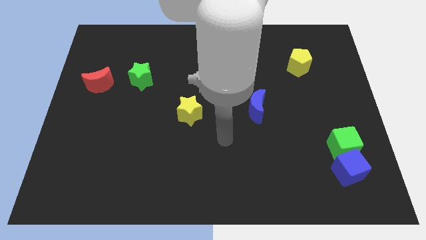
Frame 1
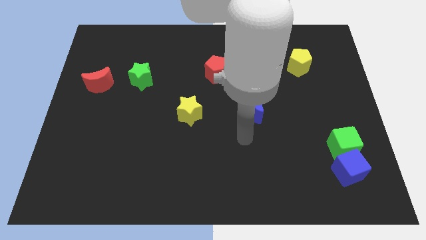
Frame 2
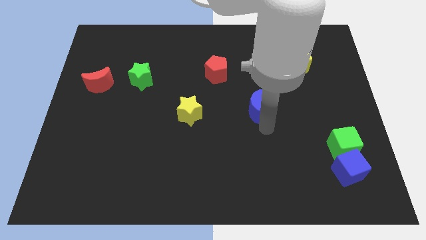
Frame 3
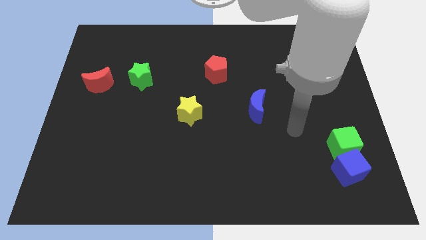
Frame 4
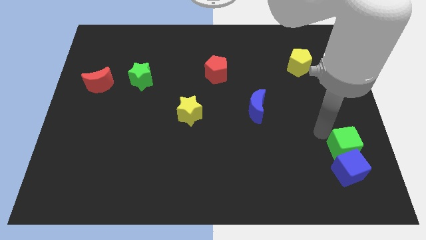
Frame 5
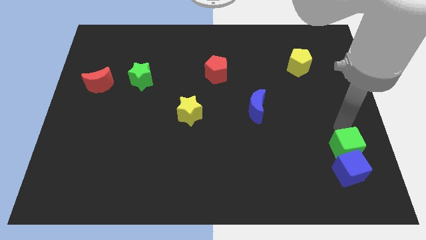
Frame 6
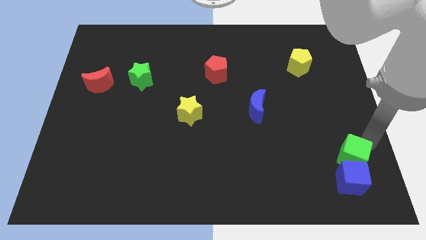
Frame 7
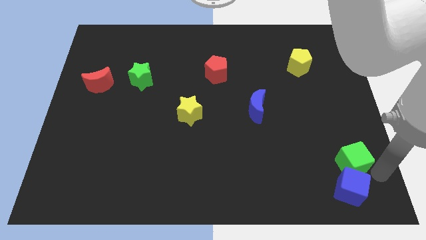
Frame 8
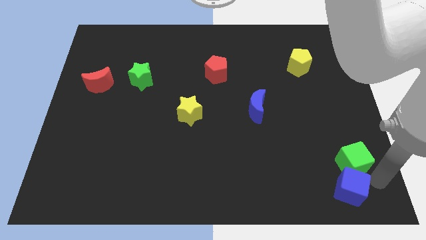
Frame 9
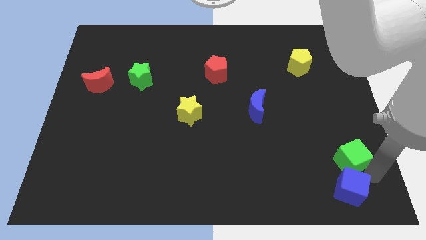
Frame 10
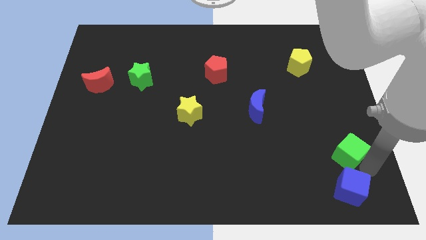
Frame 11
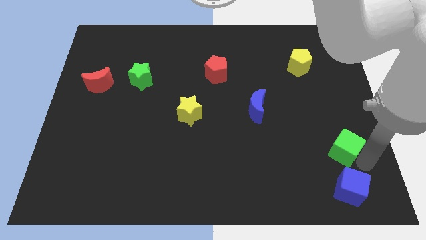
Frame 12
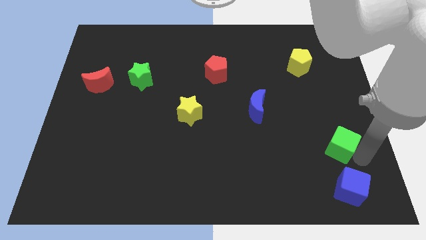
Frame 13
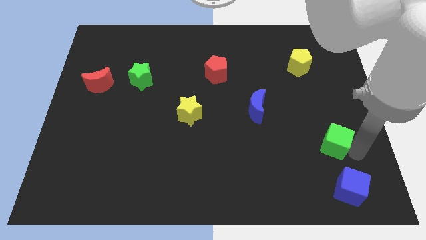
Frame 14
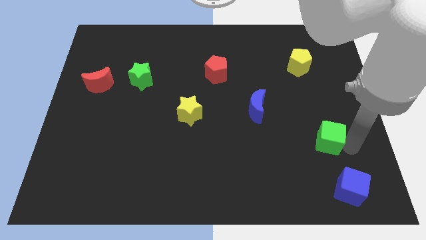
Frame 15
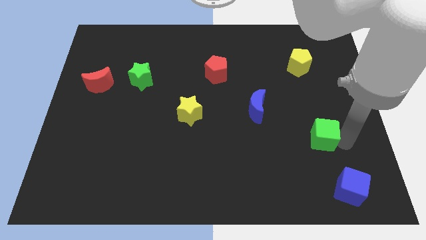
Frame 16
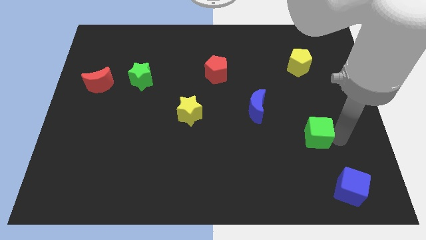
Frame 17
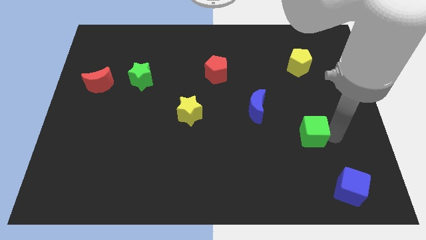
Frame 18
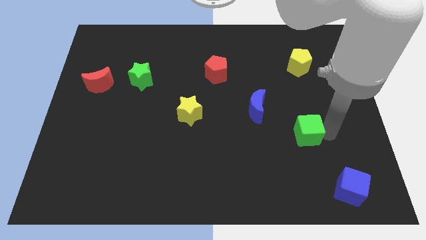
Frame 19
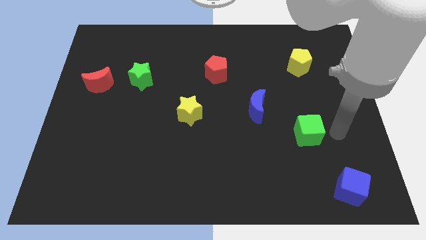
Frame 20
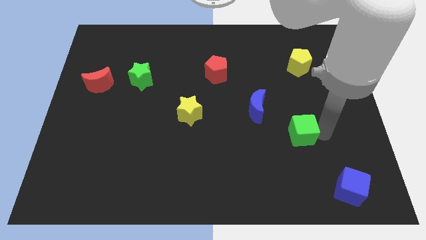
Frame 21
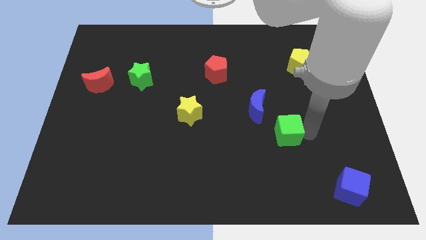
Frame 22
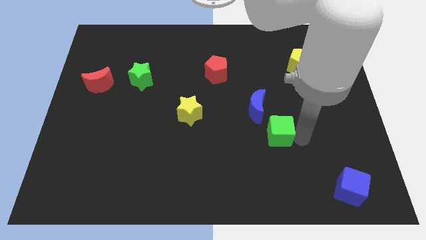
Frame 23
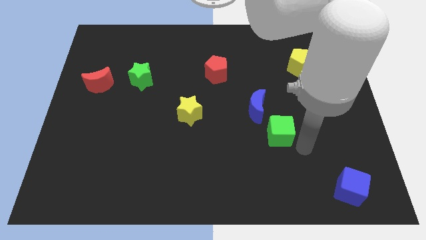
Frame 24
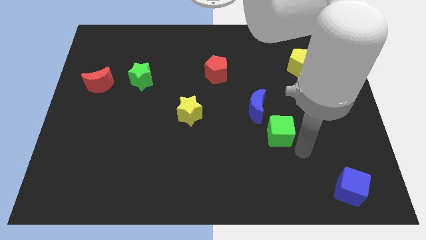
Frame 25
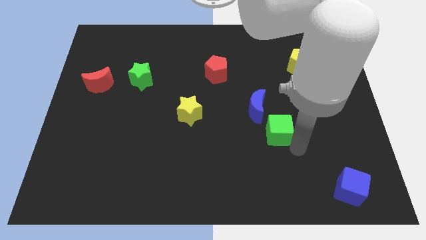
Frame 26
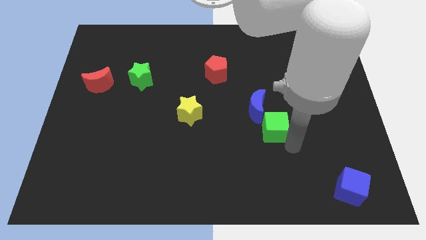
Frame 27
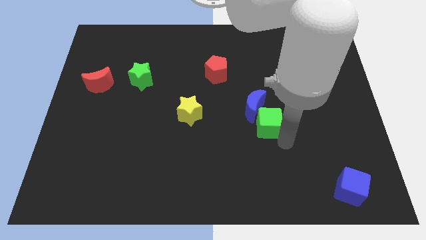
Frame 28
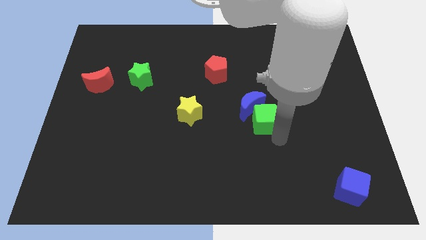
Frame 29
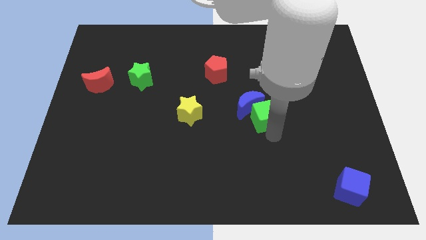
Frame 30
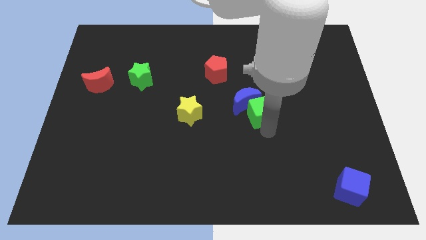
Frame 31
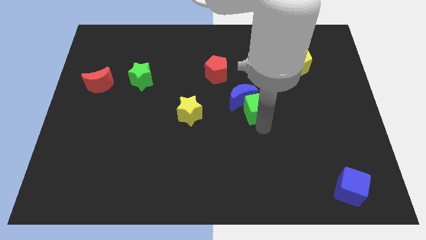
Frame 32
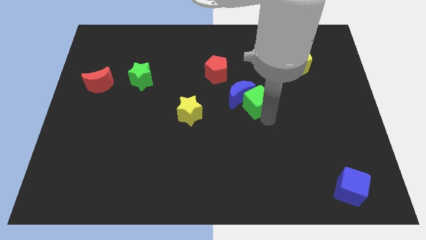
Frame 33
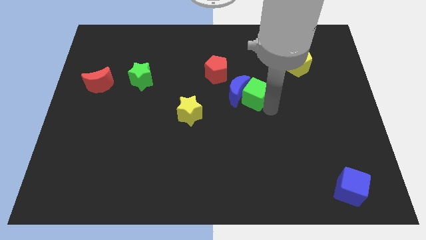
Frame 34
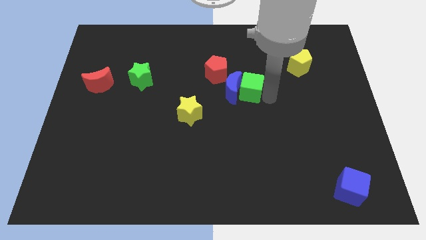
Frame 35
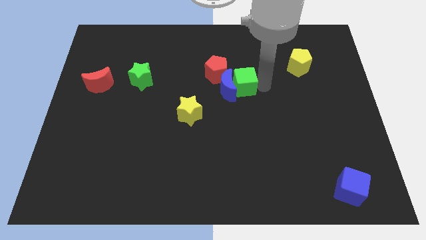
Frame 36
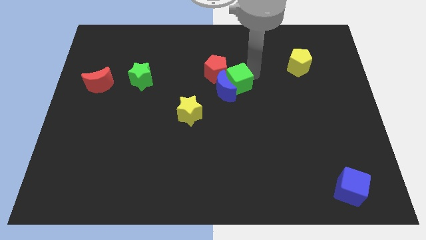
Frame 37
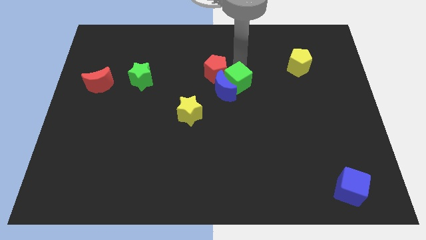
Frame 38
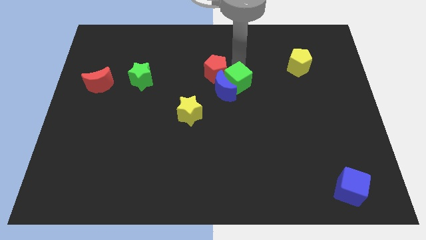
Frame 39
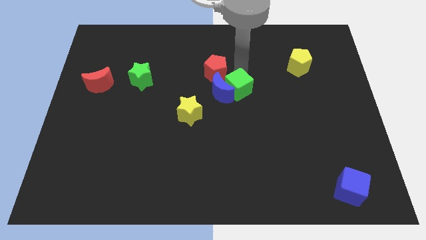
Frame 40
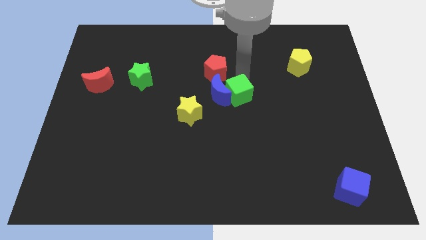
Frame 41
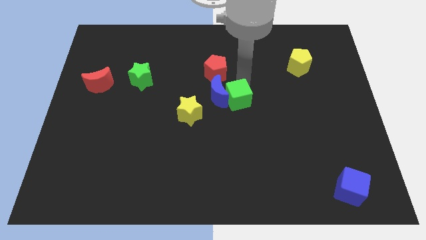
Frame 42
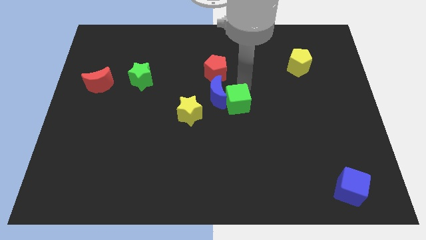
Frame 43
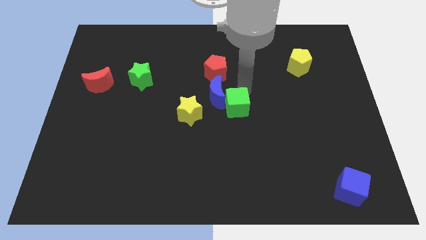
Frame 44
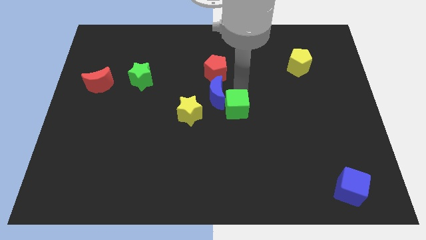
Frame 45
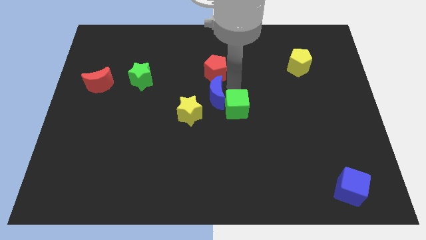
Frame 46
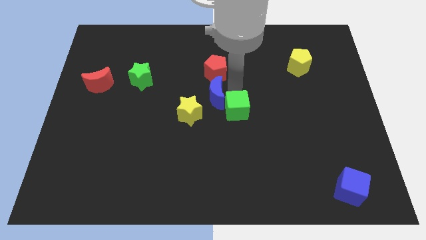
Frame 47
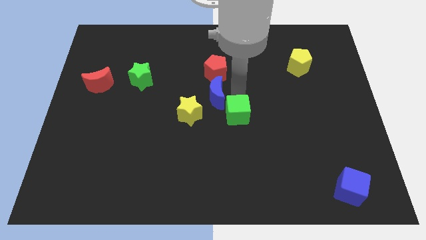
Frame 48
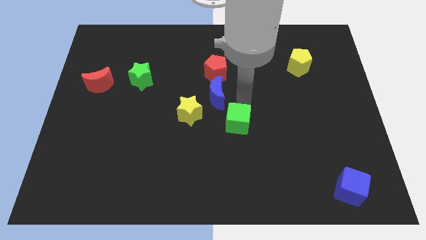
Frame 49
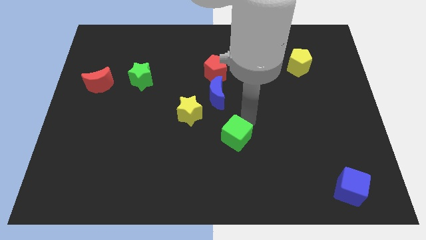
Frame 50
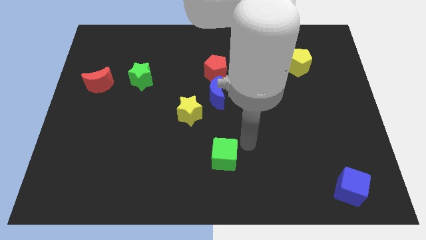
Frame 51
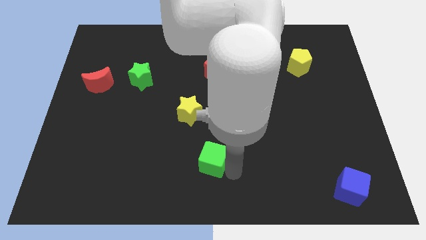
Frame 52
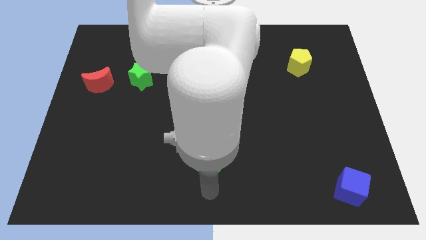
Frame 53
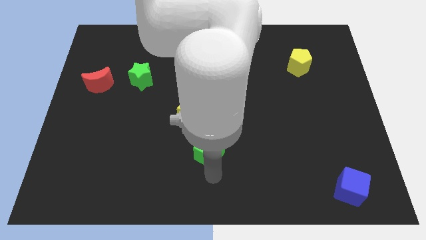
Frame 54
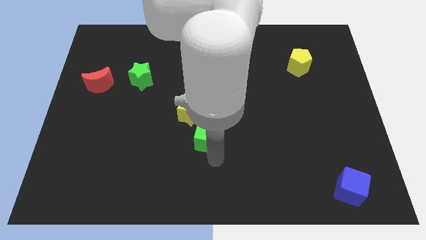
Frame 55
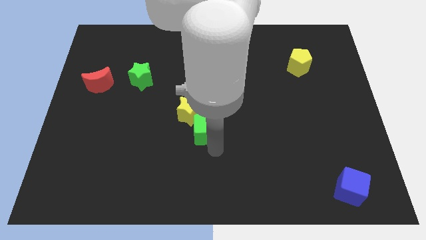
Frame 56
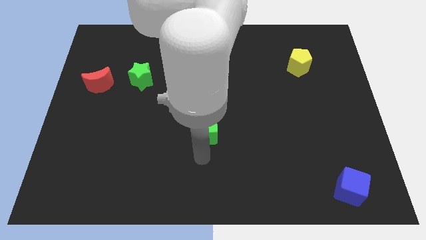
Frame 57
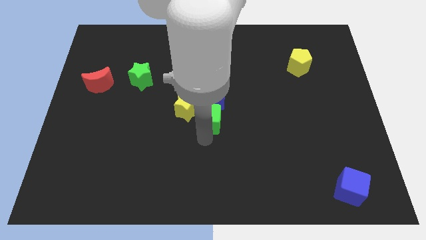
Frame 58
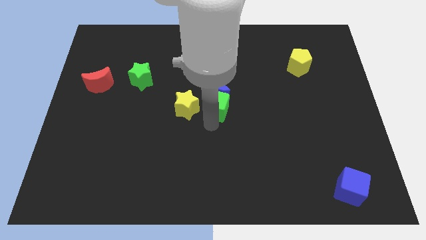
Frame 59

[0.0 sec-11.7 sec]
push the green cube to the top right side of the yellow star
